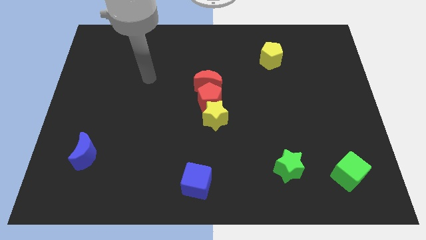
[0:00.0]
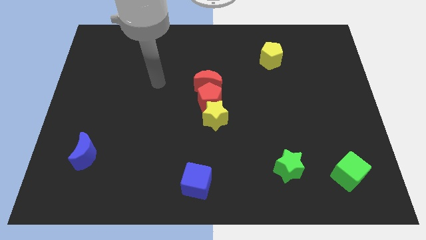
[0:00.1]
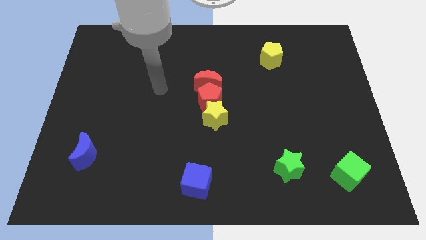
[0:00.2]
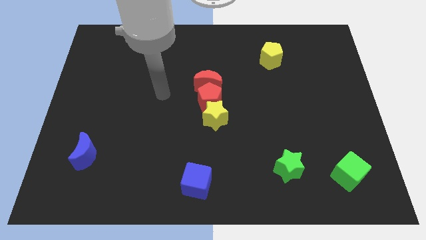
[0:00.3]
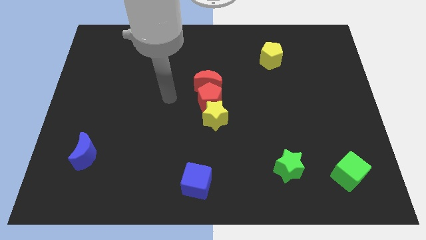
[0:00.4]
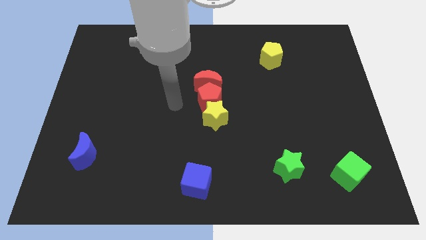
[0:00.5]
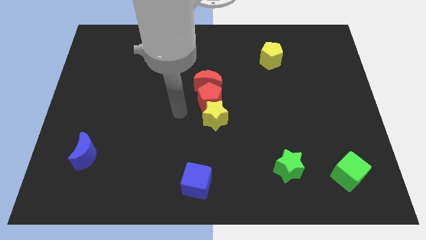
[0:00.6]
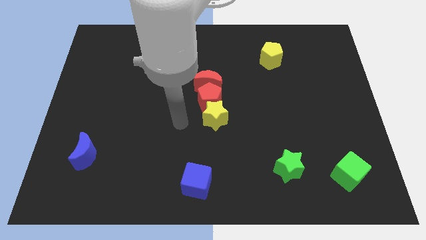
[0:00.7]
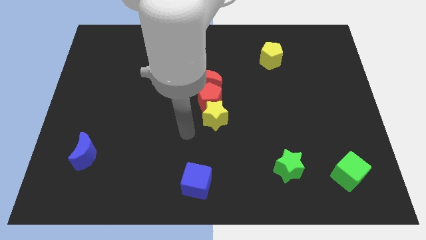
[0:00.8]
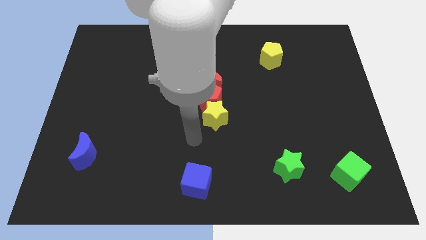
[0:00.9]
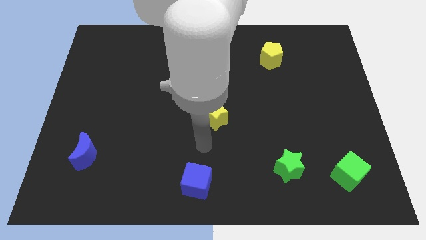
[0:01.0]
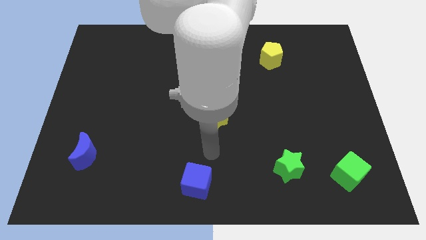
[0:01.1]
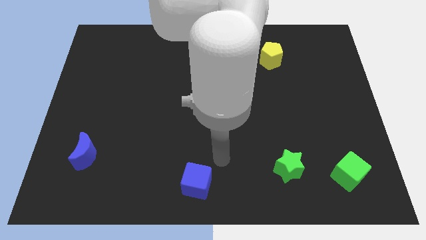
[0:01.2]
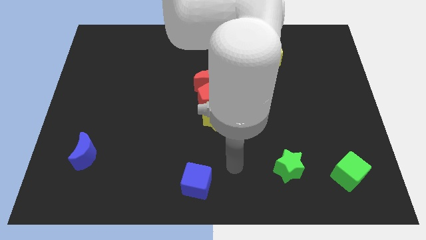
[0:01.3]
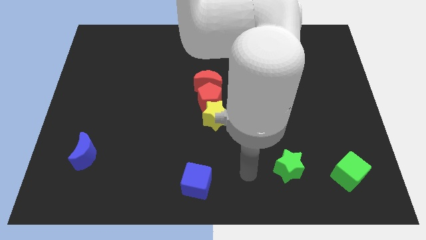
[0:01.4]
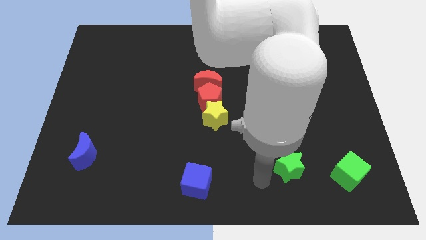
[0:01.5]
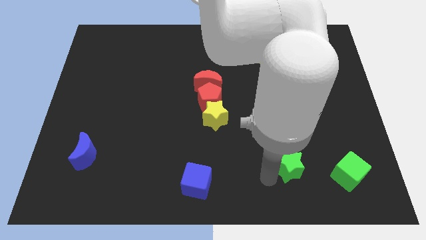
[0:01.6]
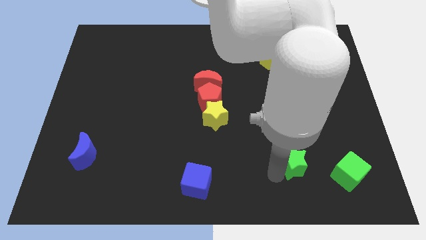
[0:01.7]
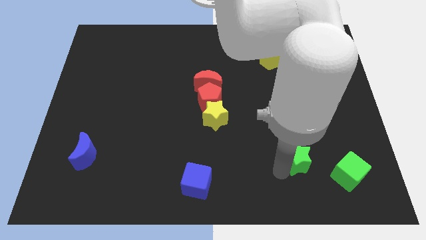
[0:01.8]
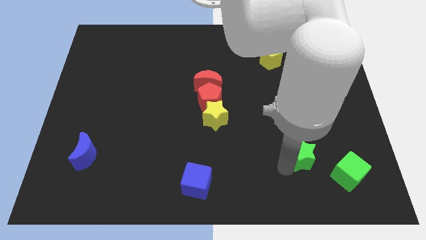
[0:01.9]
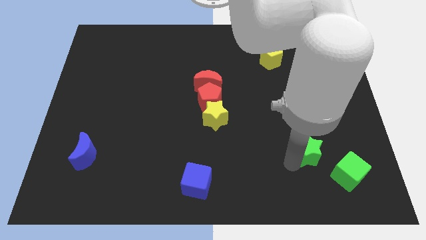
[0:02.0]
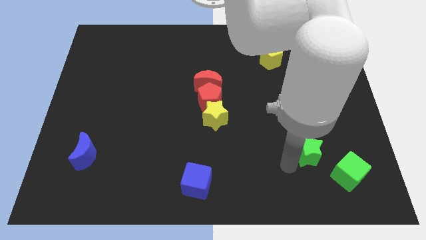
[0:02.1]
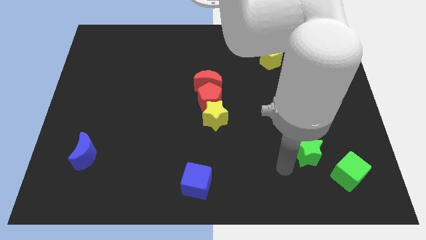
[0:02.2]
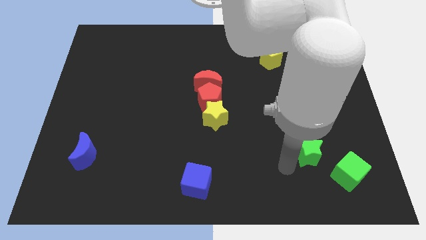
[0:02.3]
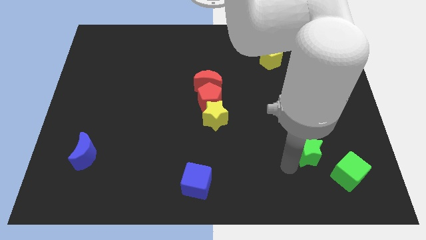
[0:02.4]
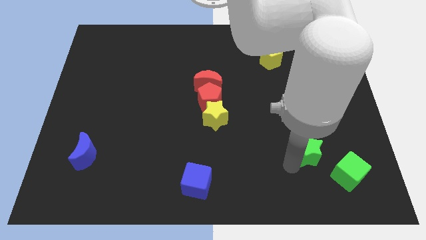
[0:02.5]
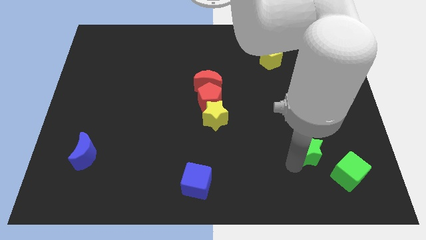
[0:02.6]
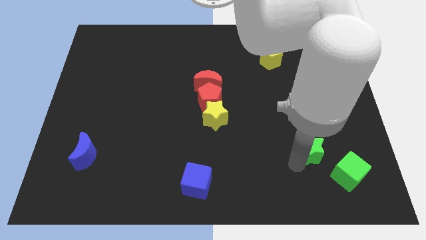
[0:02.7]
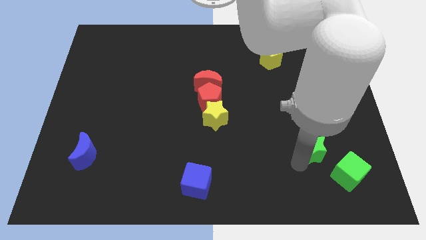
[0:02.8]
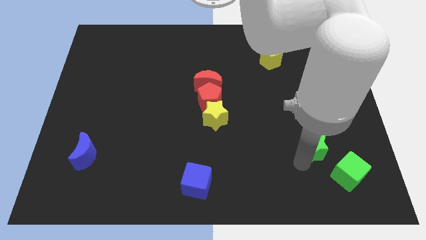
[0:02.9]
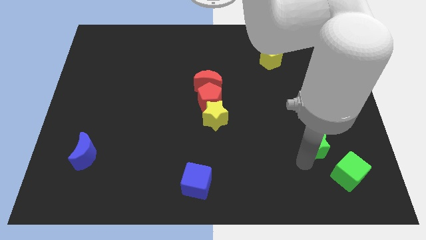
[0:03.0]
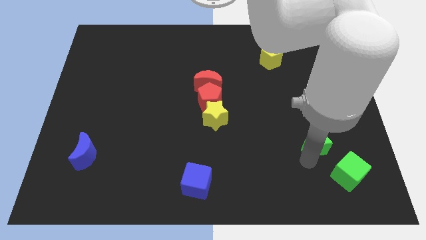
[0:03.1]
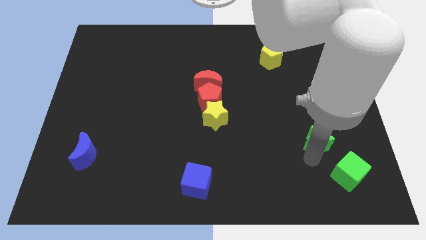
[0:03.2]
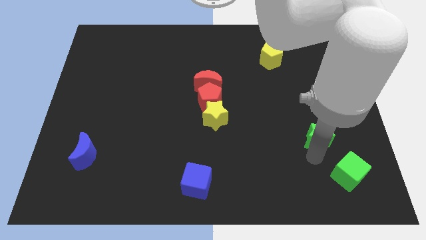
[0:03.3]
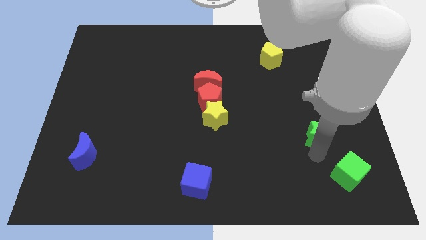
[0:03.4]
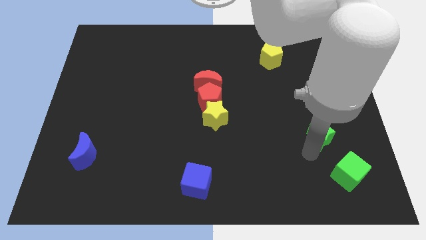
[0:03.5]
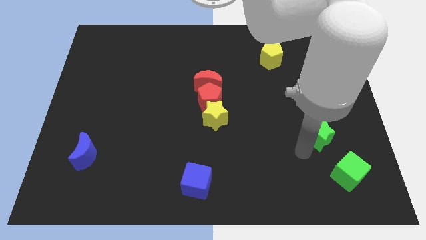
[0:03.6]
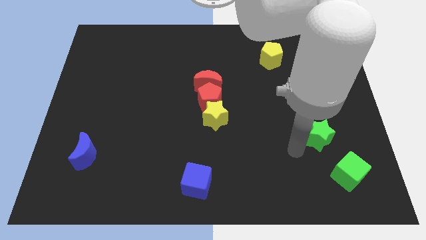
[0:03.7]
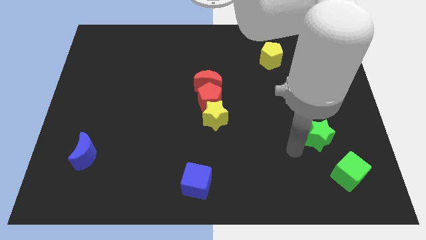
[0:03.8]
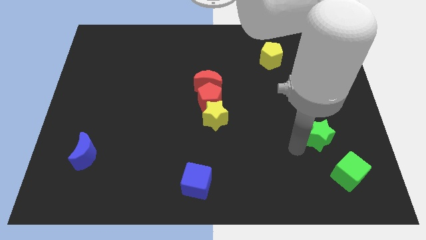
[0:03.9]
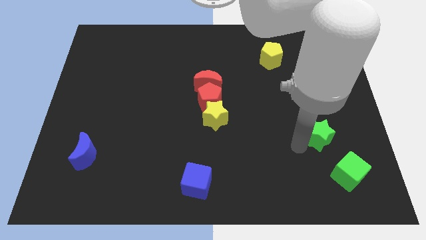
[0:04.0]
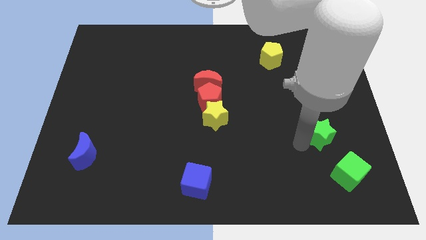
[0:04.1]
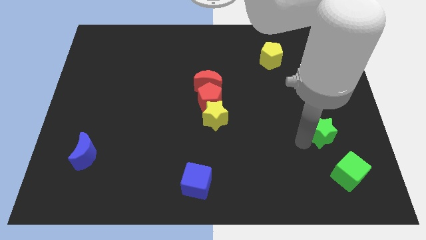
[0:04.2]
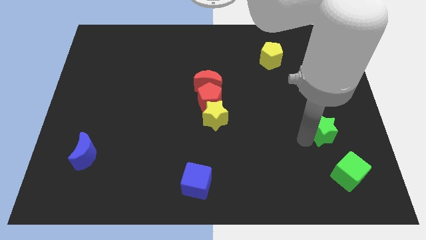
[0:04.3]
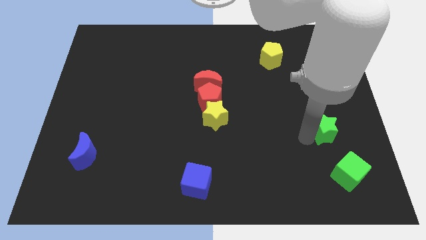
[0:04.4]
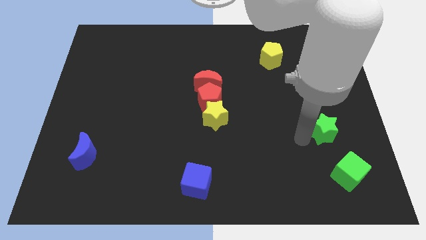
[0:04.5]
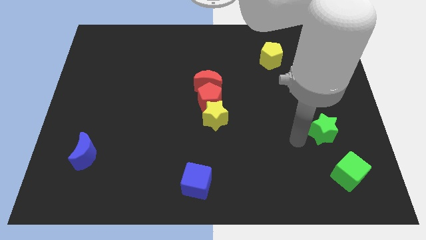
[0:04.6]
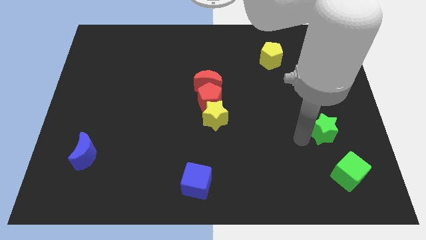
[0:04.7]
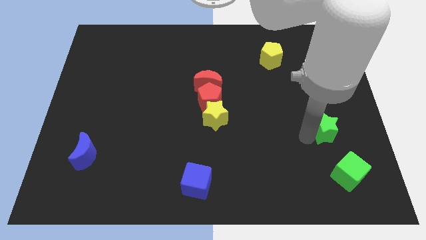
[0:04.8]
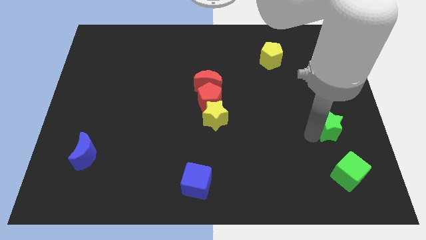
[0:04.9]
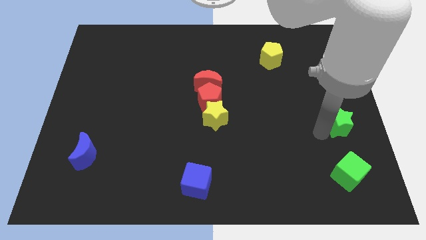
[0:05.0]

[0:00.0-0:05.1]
move the green star to the center right

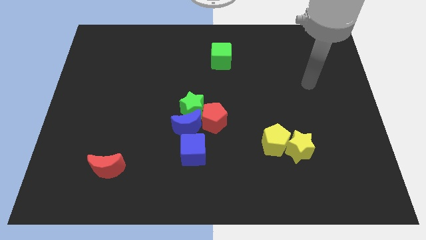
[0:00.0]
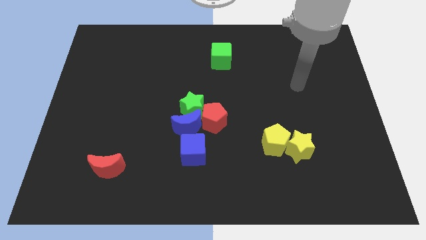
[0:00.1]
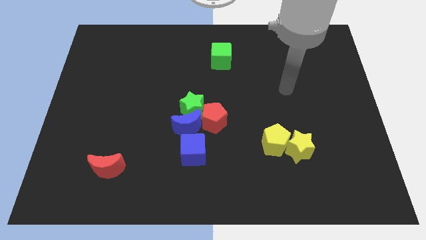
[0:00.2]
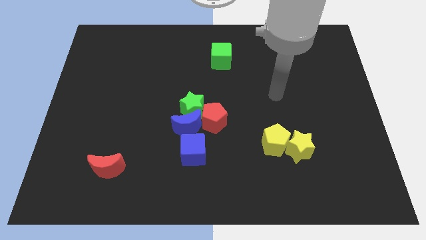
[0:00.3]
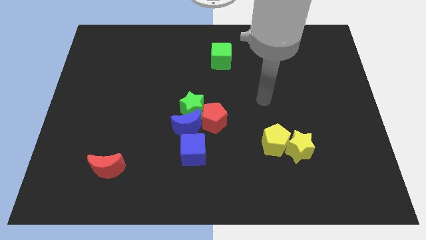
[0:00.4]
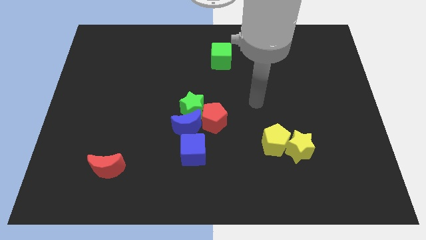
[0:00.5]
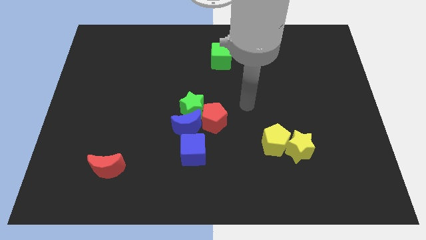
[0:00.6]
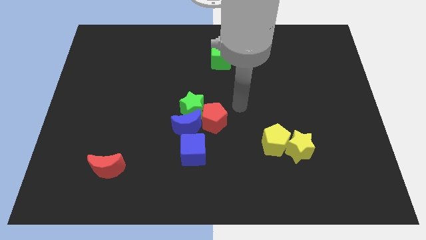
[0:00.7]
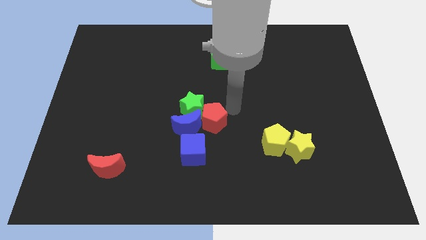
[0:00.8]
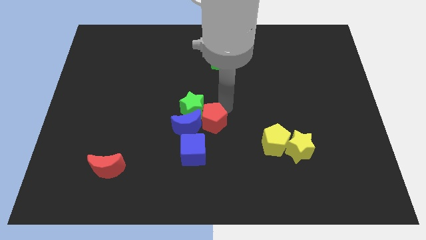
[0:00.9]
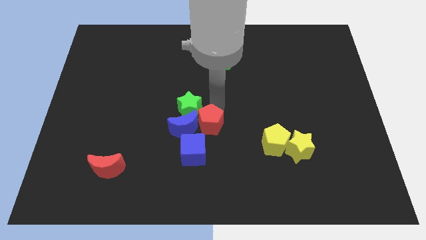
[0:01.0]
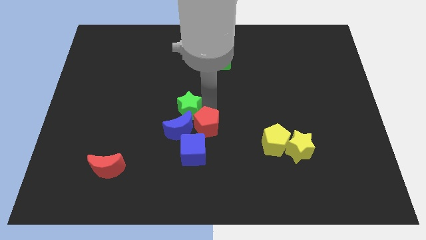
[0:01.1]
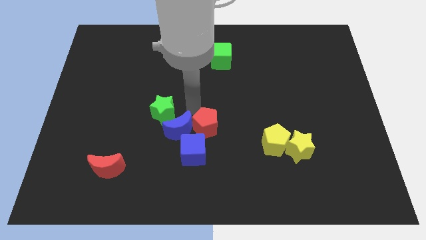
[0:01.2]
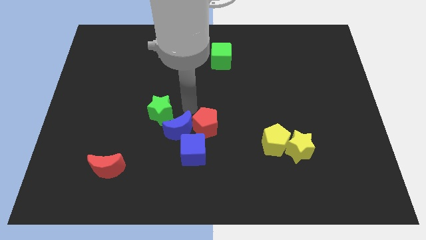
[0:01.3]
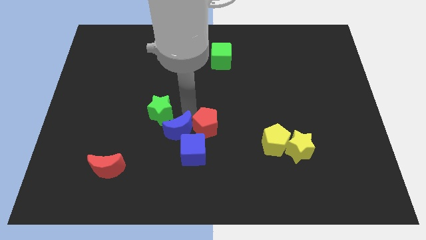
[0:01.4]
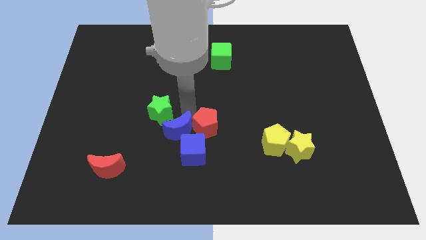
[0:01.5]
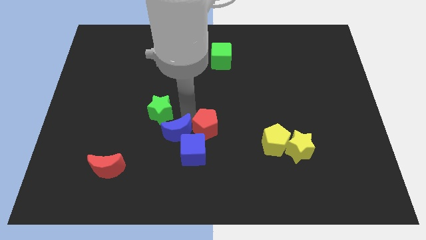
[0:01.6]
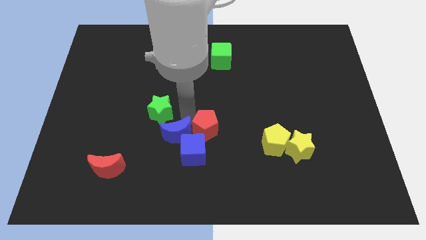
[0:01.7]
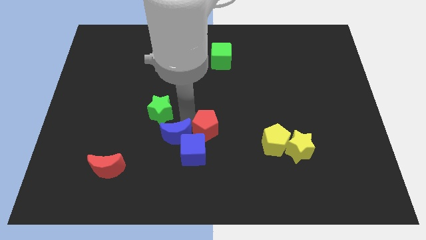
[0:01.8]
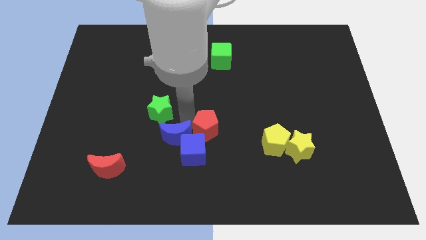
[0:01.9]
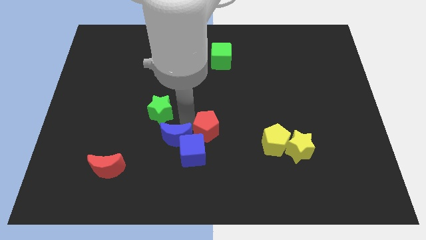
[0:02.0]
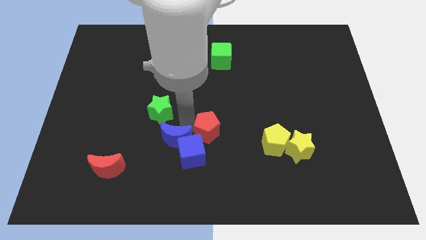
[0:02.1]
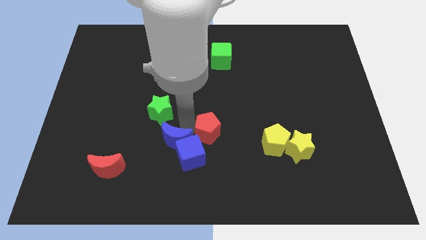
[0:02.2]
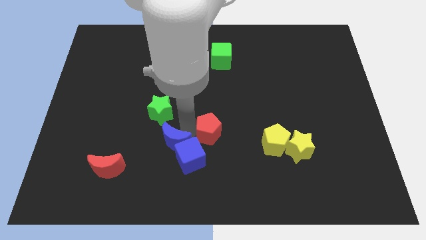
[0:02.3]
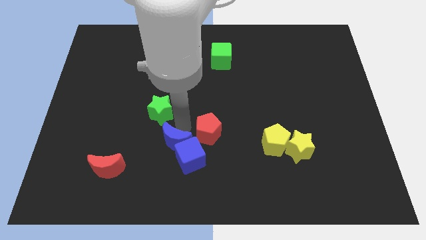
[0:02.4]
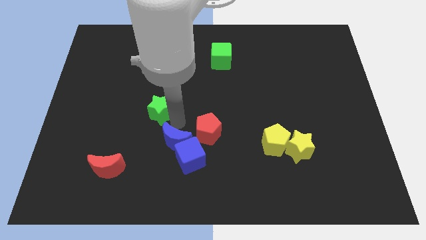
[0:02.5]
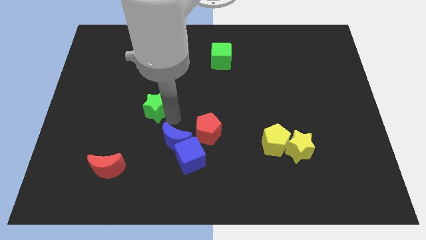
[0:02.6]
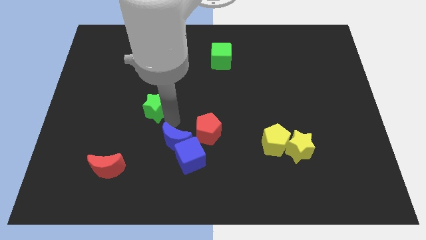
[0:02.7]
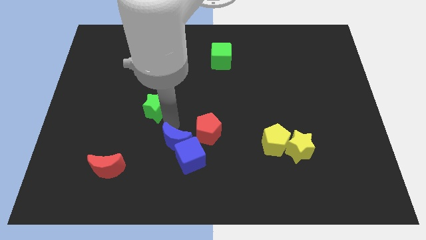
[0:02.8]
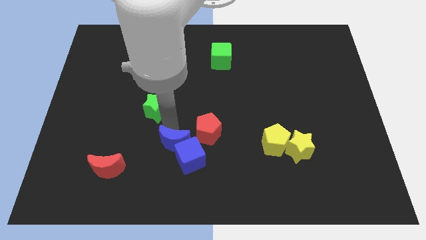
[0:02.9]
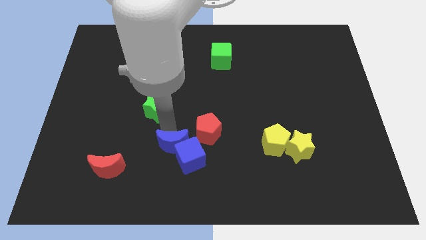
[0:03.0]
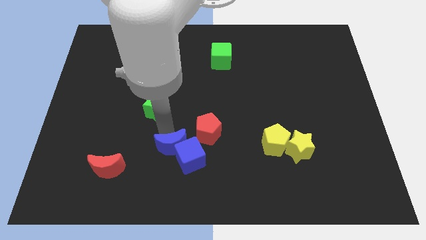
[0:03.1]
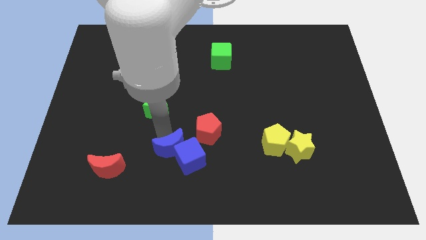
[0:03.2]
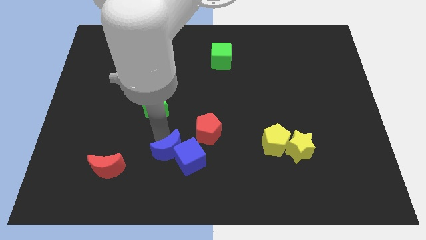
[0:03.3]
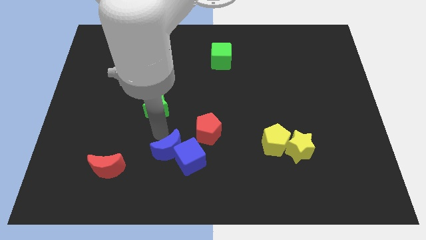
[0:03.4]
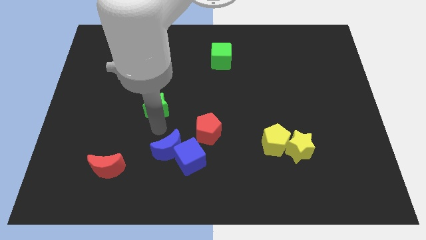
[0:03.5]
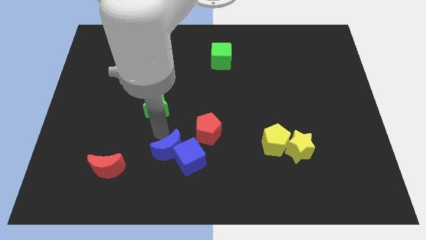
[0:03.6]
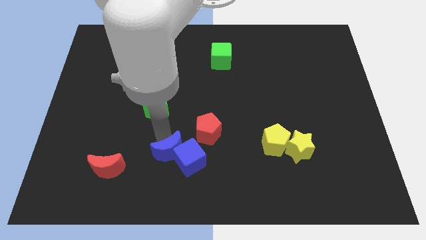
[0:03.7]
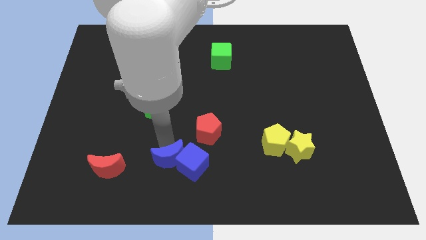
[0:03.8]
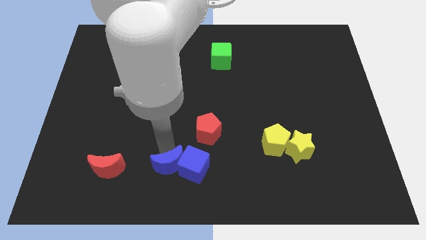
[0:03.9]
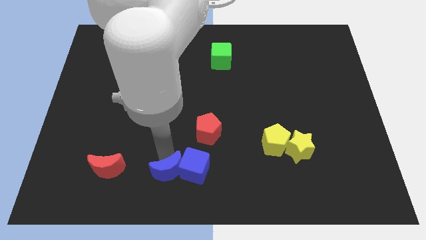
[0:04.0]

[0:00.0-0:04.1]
move the blue moon to the bottom side
